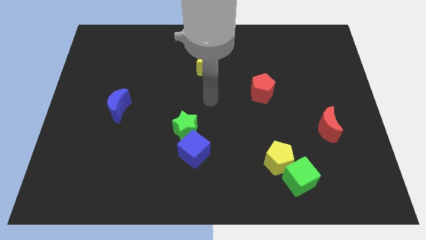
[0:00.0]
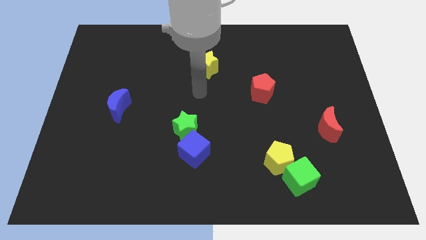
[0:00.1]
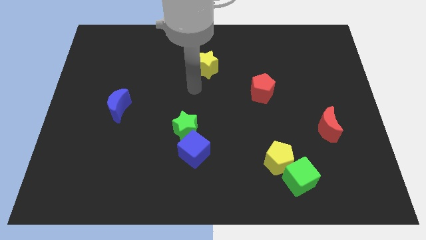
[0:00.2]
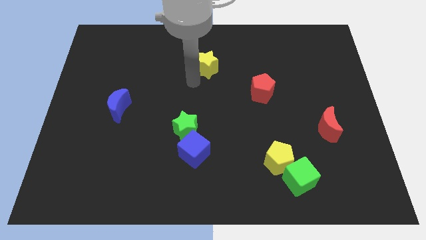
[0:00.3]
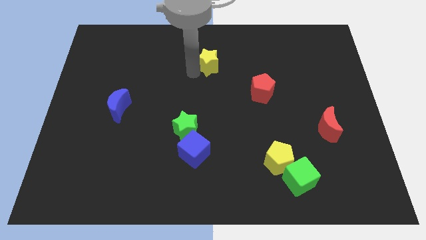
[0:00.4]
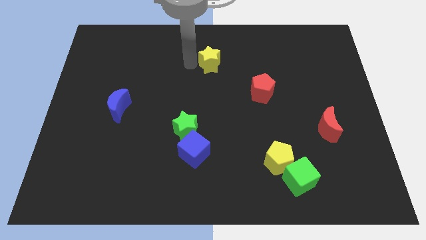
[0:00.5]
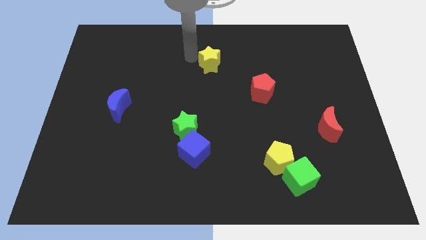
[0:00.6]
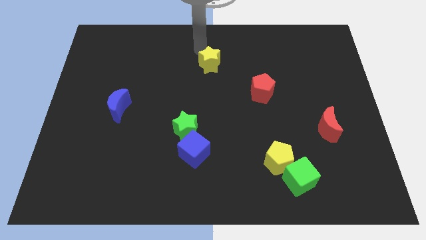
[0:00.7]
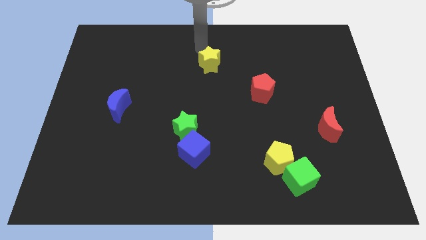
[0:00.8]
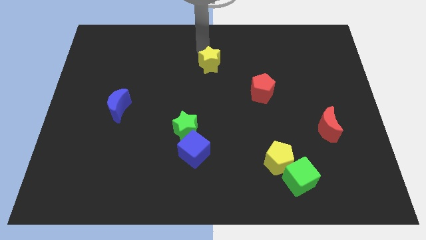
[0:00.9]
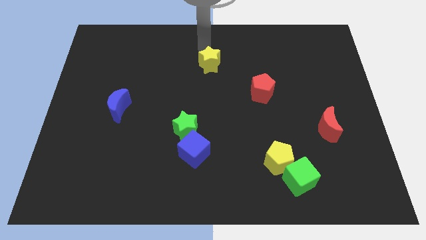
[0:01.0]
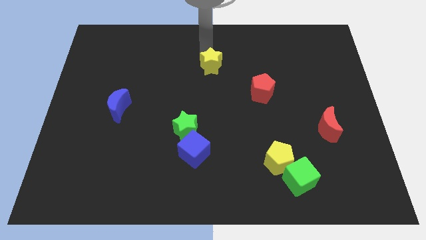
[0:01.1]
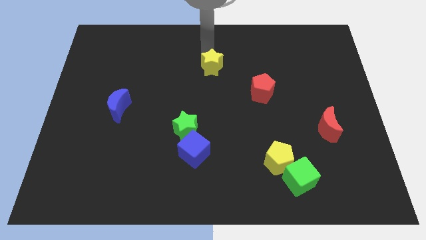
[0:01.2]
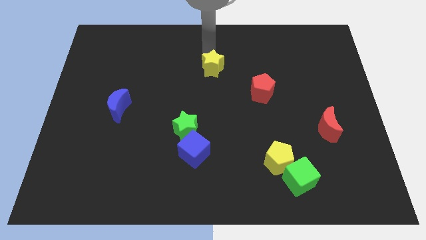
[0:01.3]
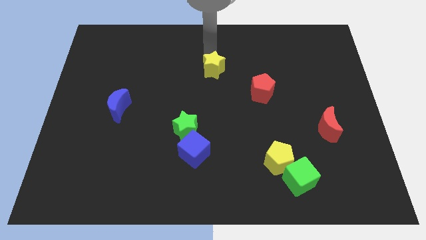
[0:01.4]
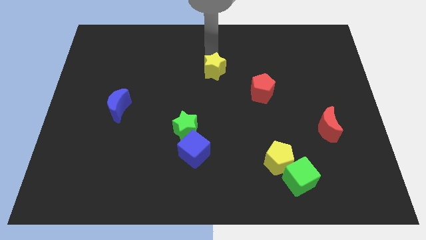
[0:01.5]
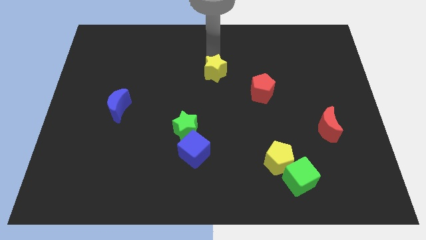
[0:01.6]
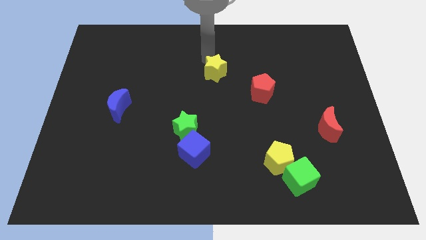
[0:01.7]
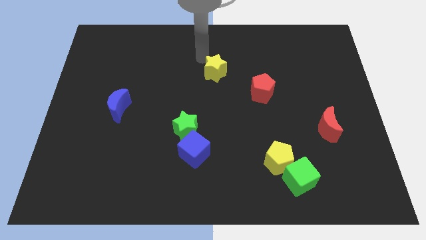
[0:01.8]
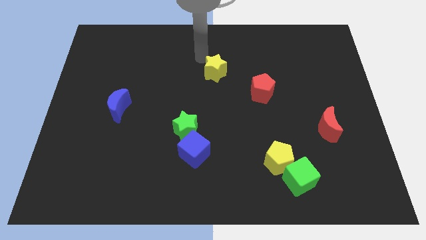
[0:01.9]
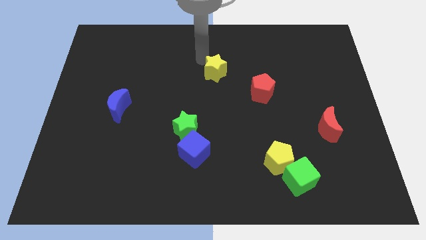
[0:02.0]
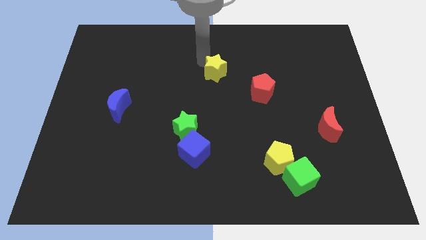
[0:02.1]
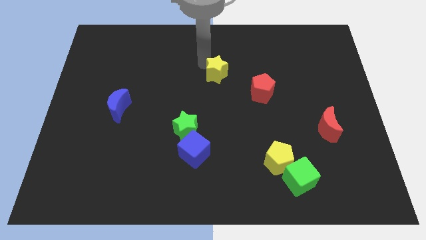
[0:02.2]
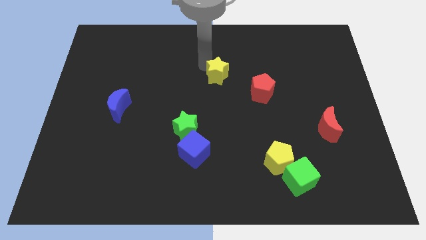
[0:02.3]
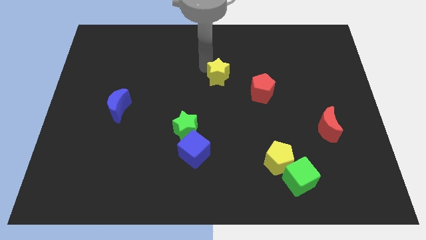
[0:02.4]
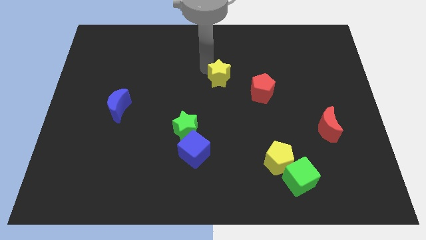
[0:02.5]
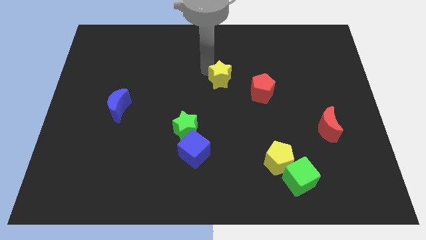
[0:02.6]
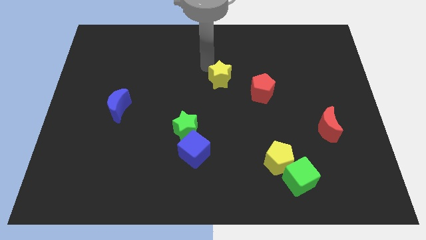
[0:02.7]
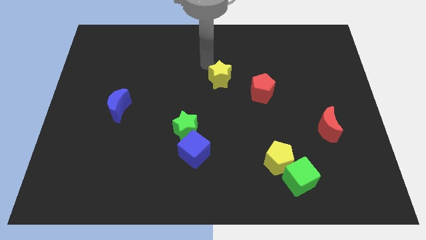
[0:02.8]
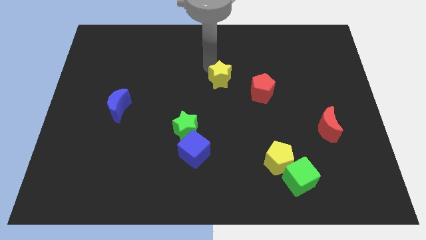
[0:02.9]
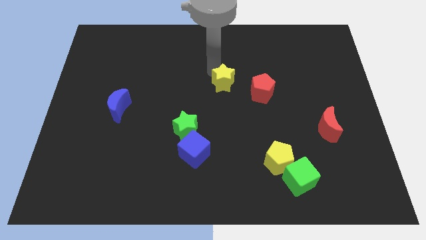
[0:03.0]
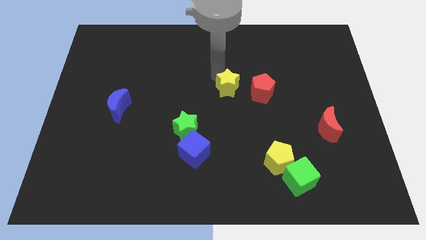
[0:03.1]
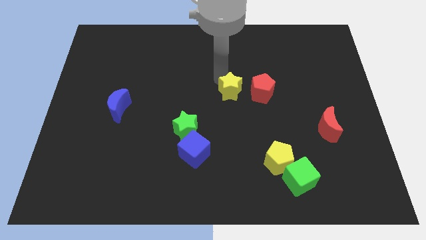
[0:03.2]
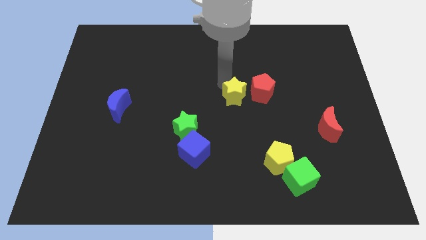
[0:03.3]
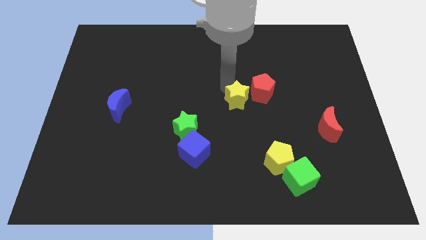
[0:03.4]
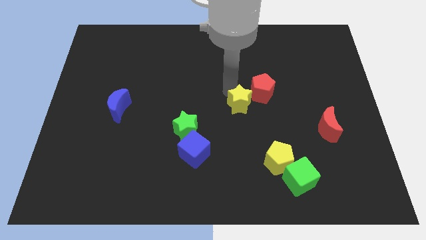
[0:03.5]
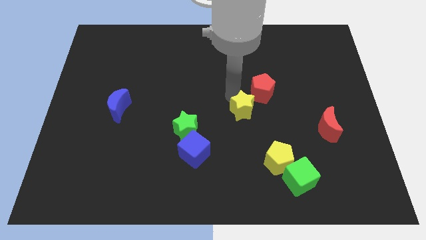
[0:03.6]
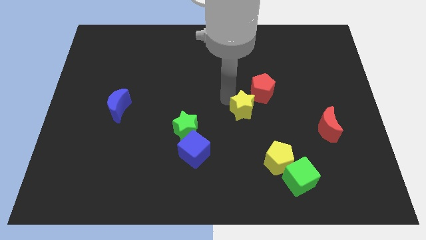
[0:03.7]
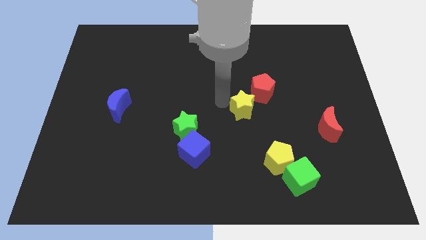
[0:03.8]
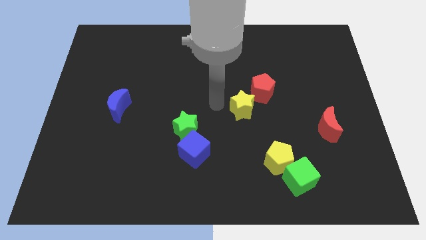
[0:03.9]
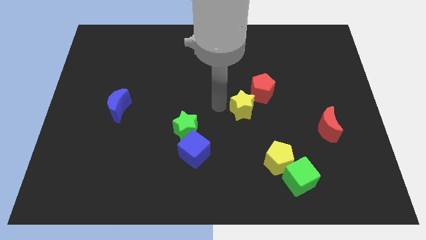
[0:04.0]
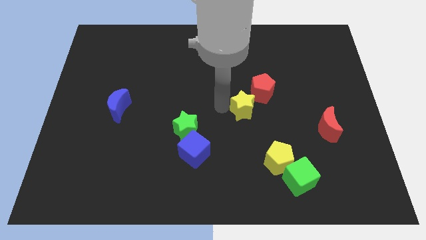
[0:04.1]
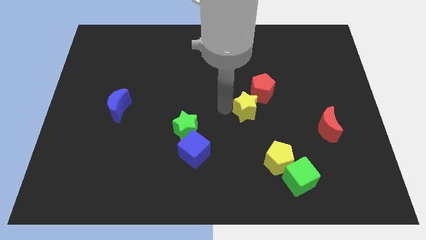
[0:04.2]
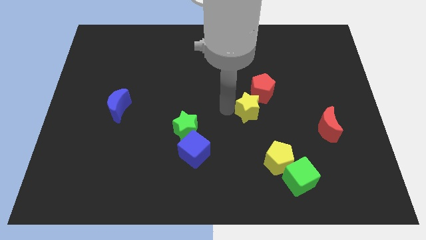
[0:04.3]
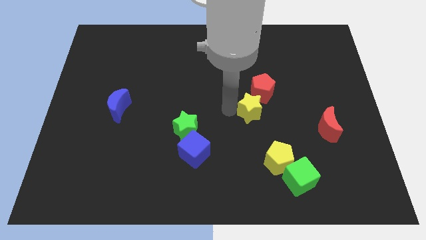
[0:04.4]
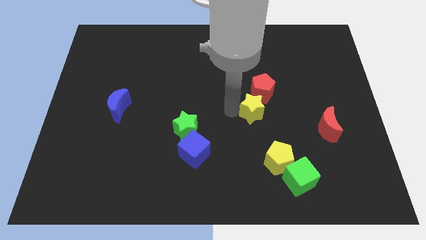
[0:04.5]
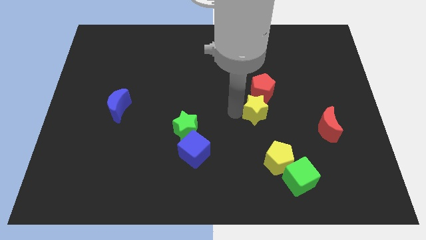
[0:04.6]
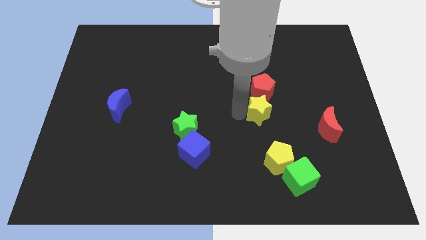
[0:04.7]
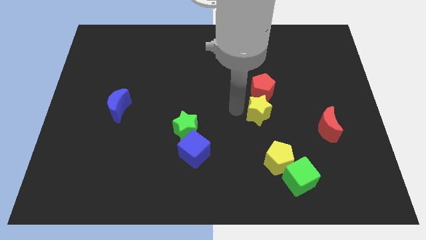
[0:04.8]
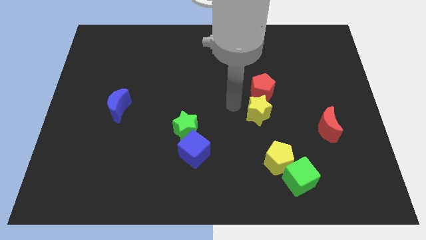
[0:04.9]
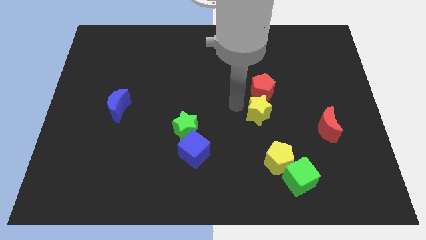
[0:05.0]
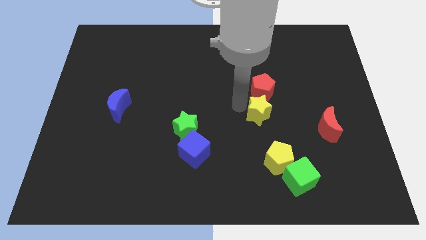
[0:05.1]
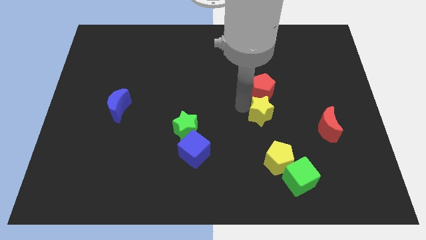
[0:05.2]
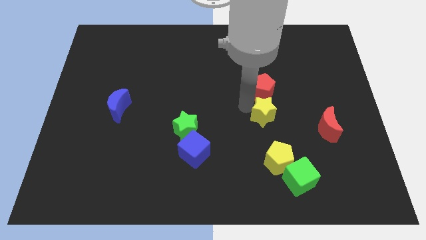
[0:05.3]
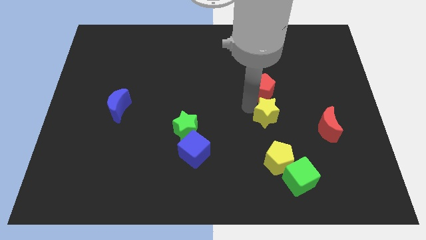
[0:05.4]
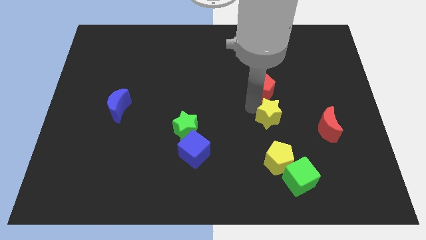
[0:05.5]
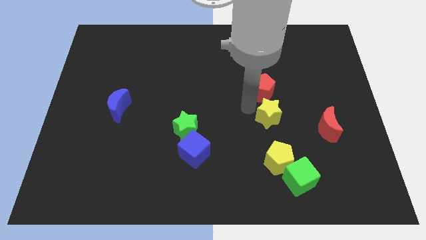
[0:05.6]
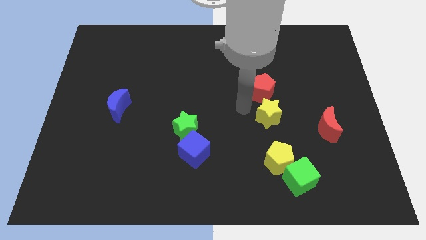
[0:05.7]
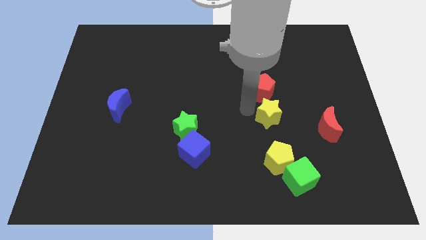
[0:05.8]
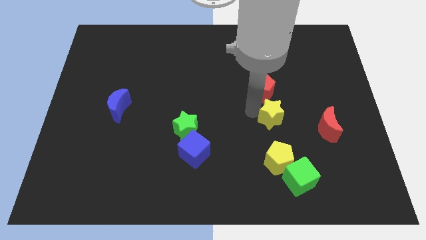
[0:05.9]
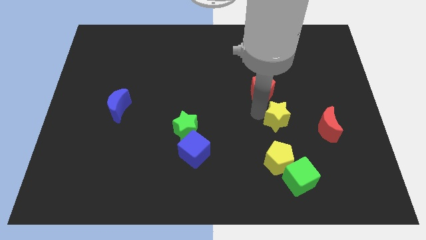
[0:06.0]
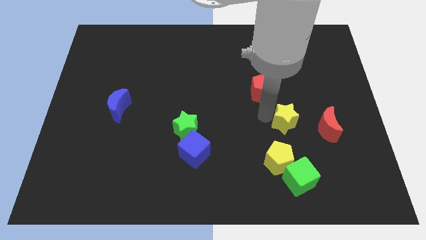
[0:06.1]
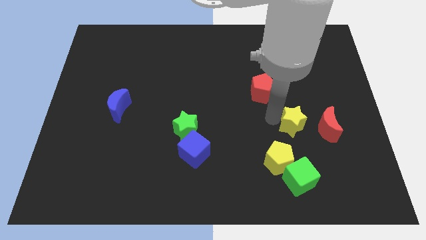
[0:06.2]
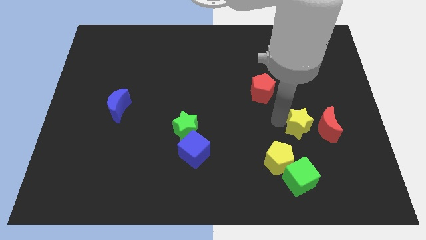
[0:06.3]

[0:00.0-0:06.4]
move the yellow star to the red moon

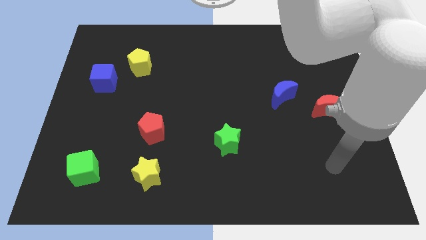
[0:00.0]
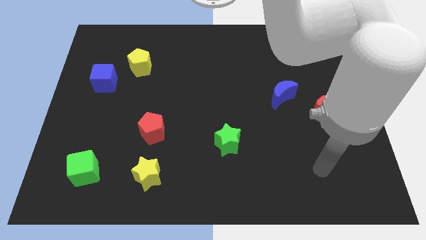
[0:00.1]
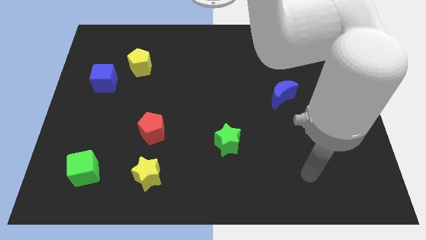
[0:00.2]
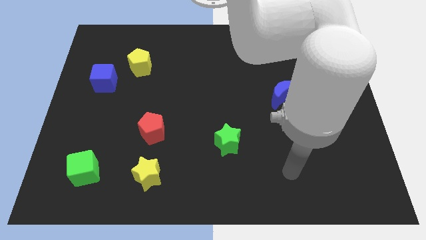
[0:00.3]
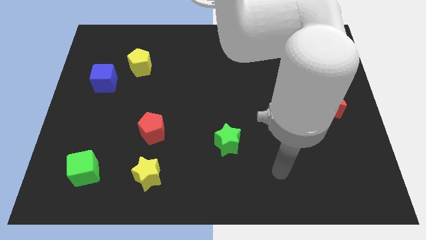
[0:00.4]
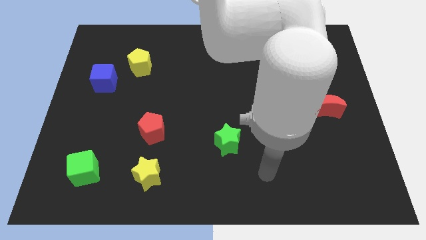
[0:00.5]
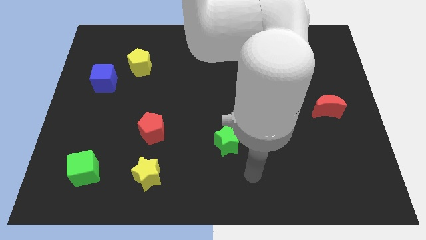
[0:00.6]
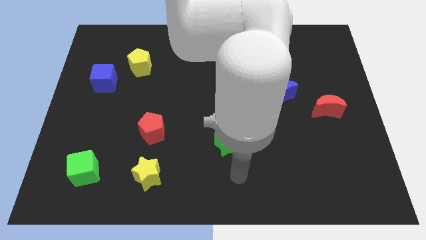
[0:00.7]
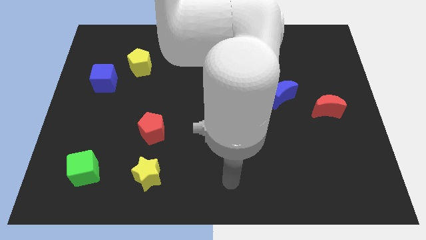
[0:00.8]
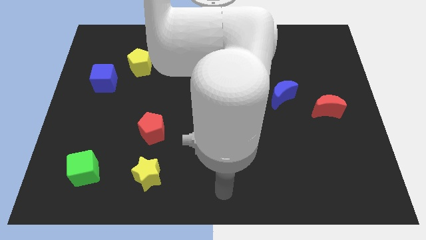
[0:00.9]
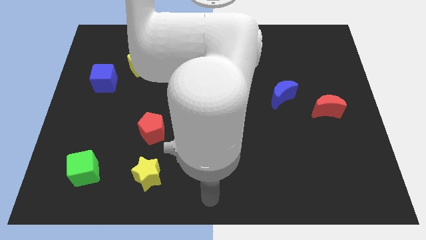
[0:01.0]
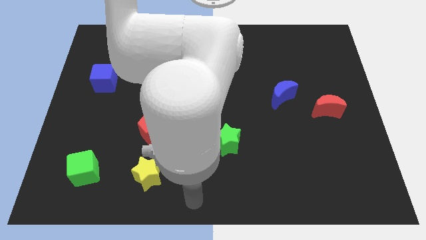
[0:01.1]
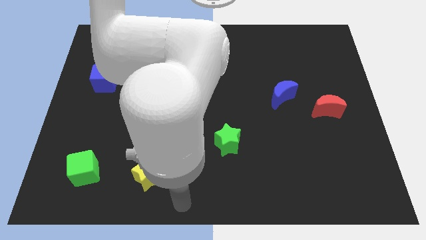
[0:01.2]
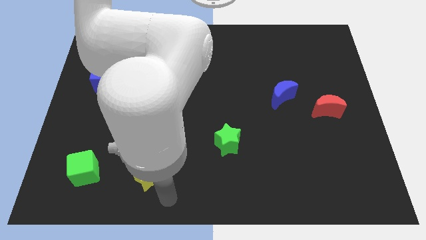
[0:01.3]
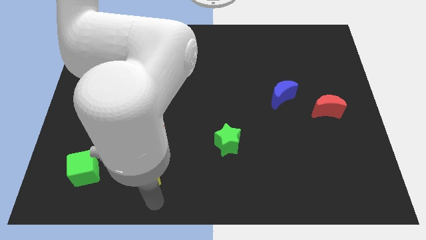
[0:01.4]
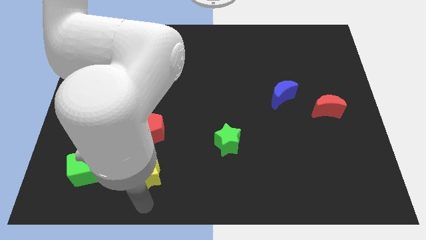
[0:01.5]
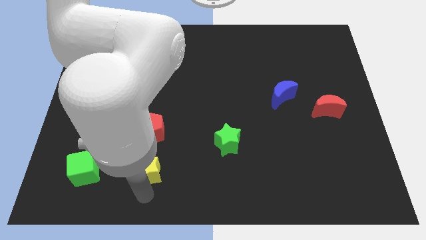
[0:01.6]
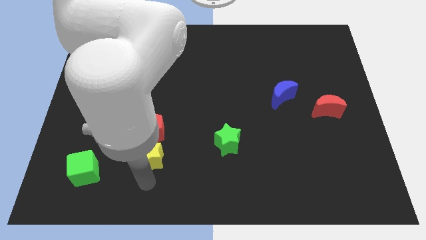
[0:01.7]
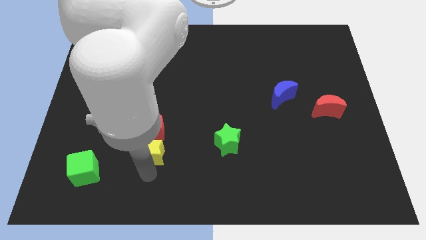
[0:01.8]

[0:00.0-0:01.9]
put the yellow star next to the red pentagon
